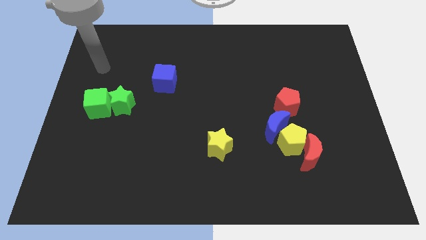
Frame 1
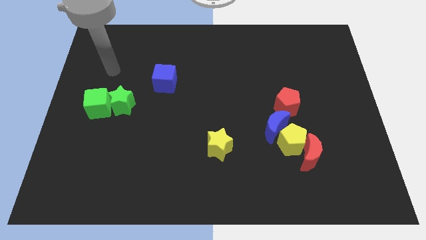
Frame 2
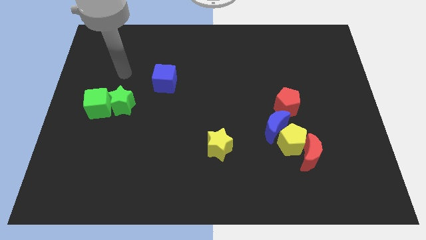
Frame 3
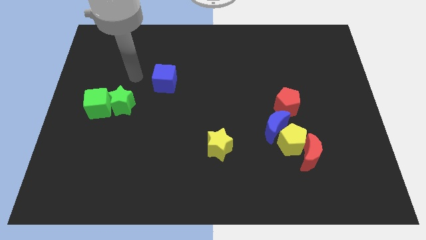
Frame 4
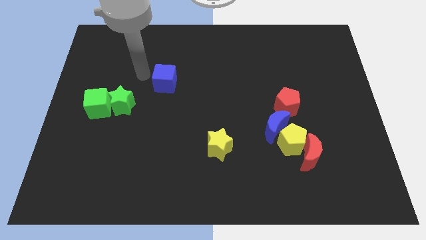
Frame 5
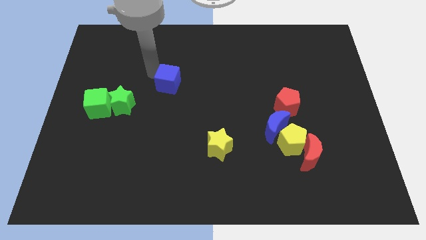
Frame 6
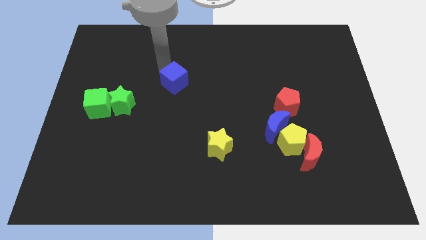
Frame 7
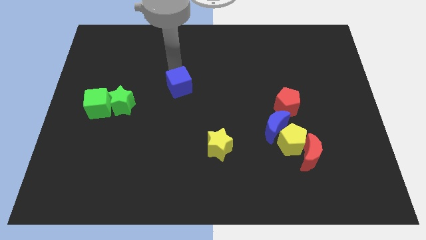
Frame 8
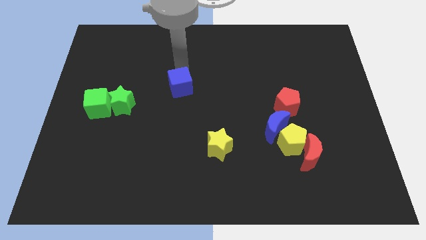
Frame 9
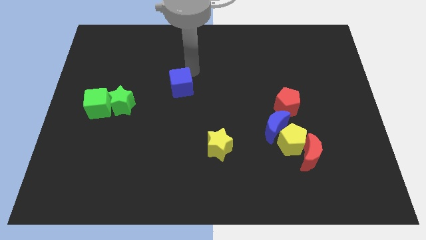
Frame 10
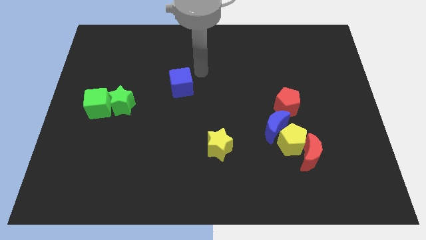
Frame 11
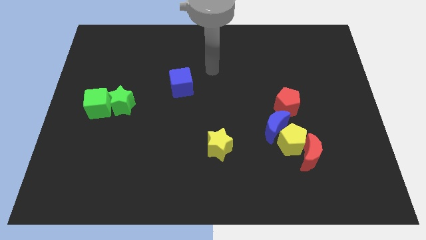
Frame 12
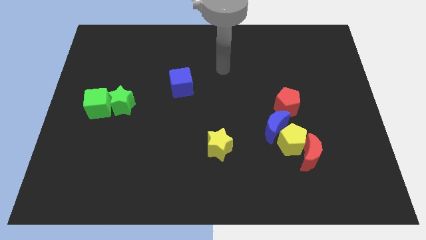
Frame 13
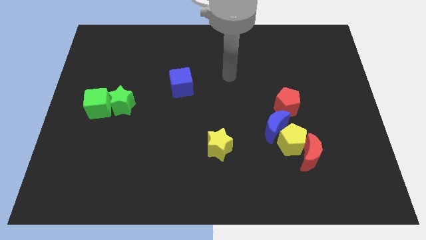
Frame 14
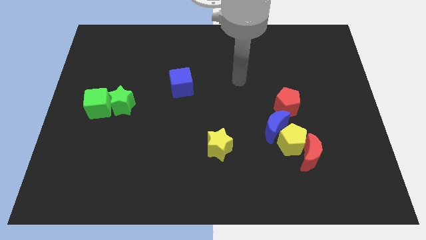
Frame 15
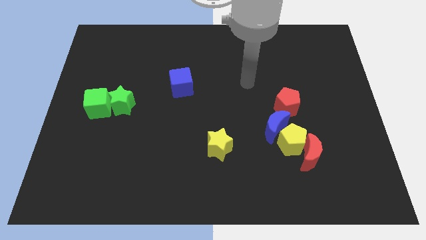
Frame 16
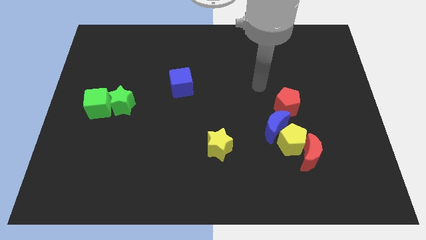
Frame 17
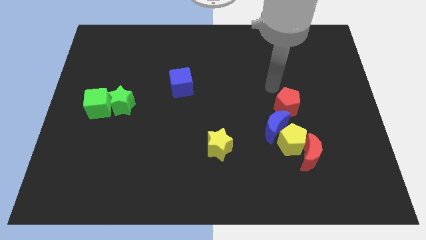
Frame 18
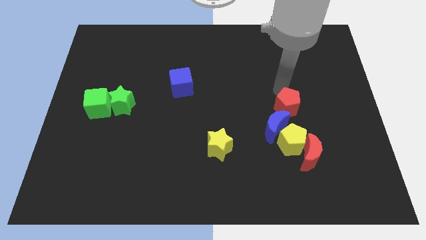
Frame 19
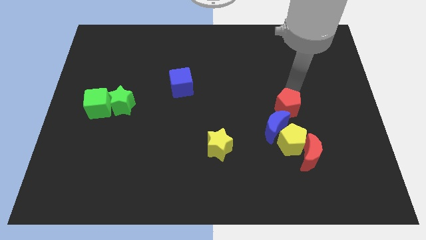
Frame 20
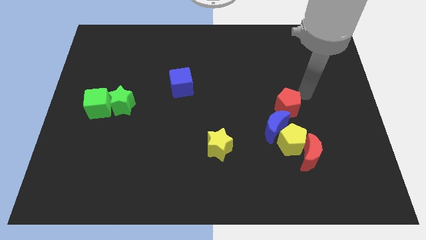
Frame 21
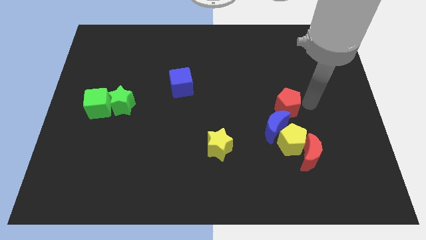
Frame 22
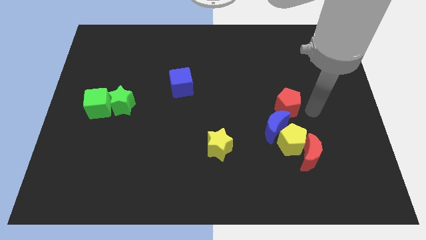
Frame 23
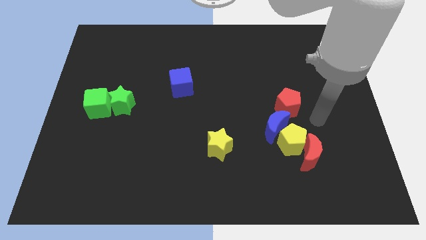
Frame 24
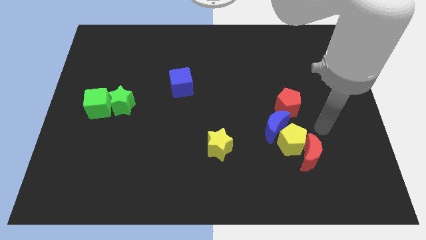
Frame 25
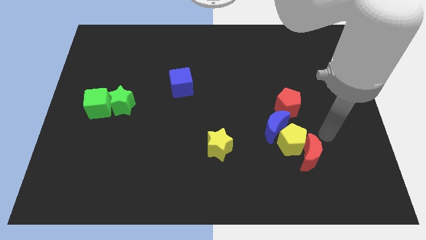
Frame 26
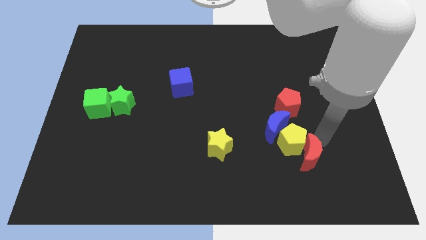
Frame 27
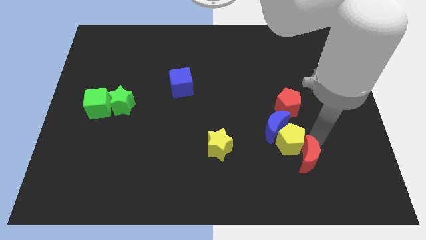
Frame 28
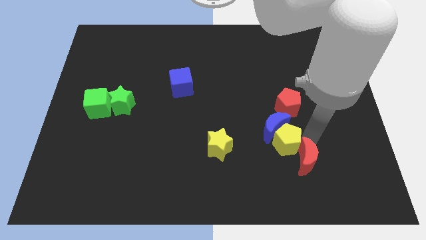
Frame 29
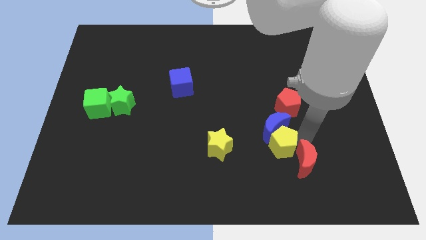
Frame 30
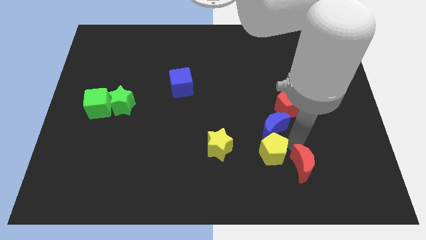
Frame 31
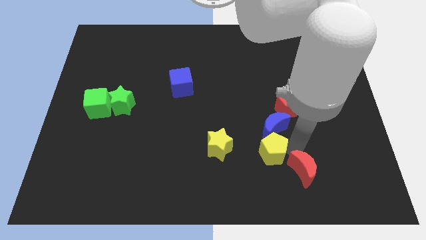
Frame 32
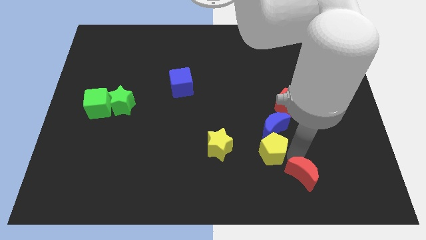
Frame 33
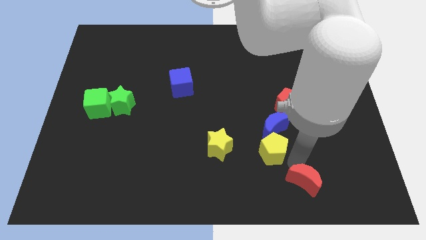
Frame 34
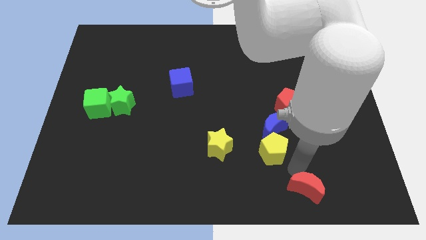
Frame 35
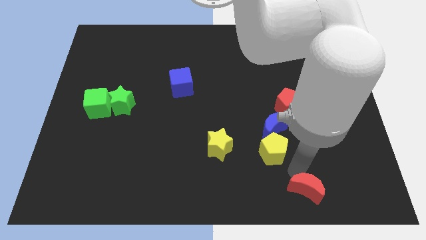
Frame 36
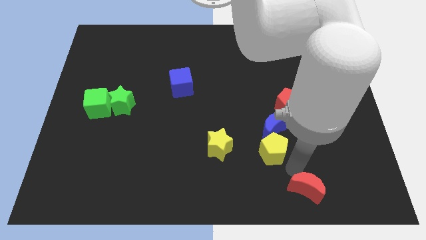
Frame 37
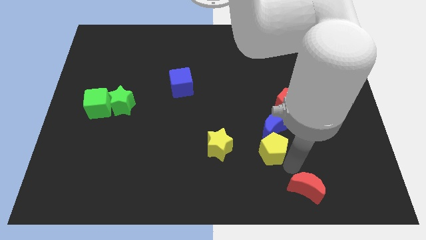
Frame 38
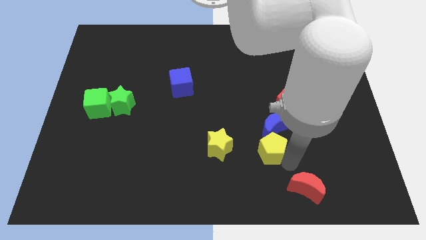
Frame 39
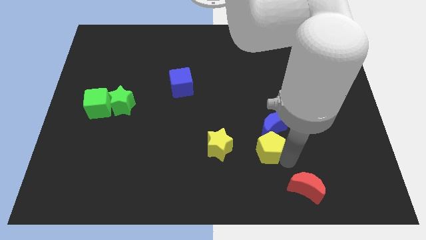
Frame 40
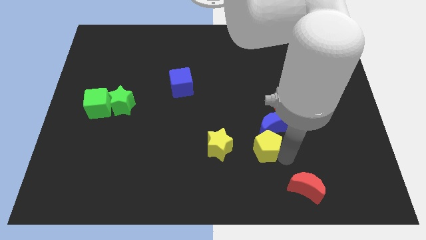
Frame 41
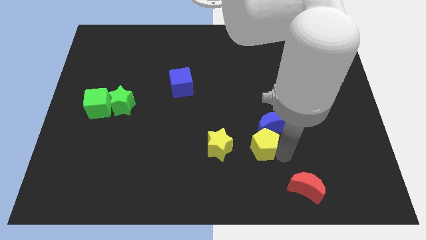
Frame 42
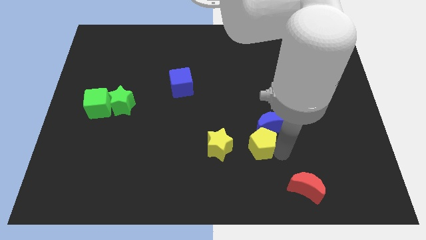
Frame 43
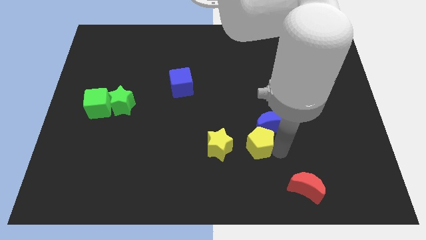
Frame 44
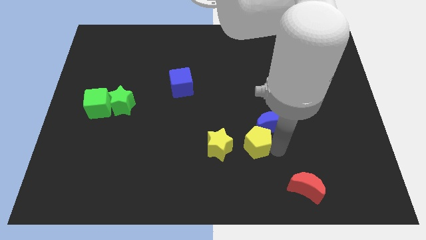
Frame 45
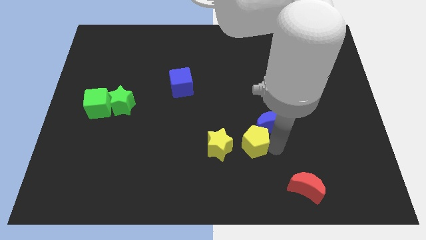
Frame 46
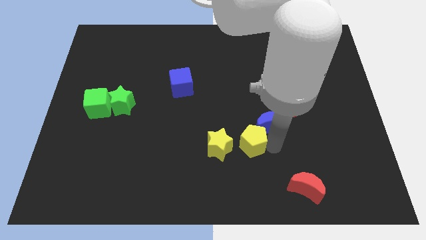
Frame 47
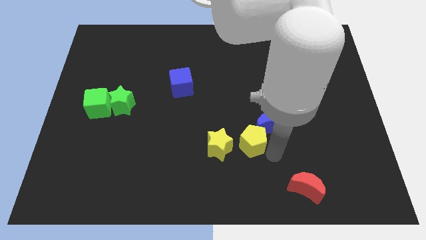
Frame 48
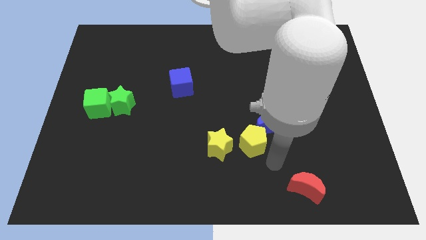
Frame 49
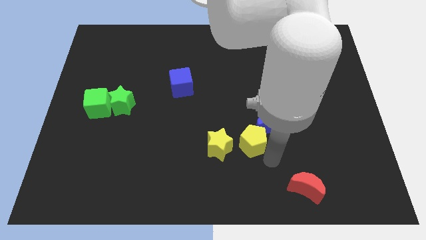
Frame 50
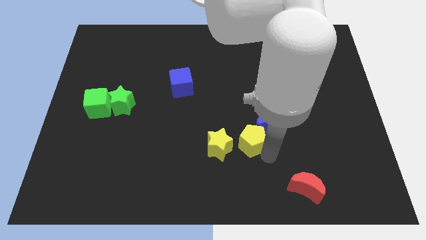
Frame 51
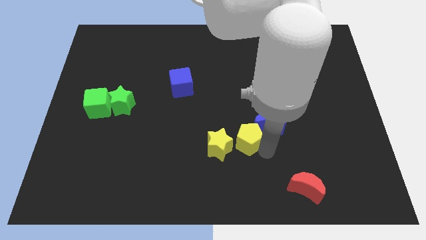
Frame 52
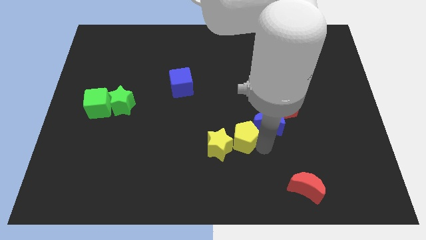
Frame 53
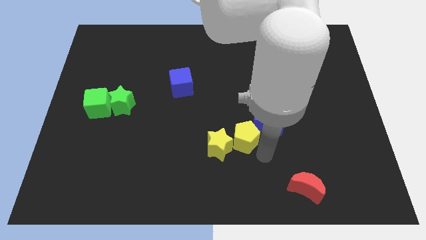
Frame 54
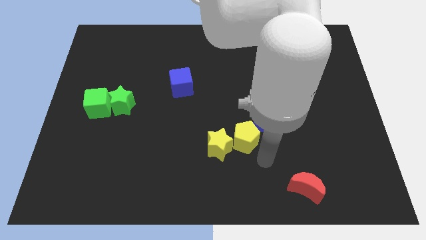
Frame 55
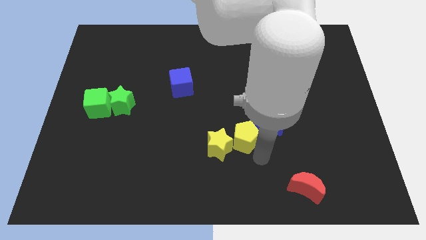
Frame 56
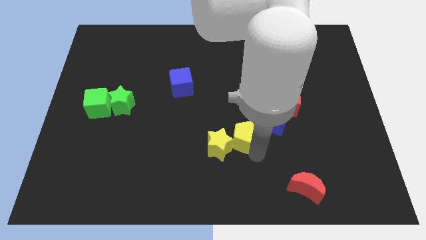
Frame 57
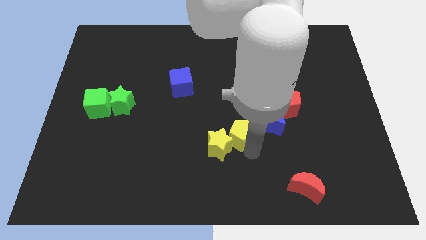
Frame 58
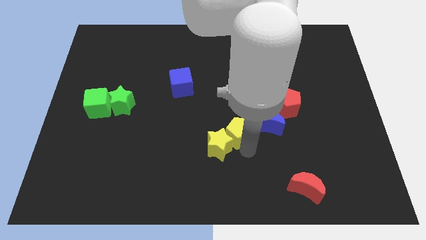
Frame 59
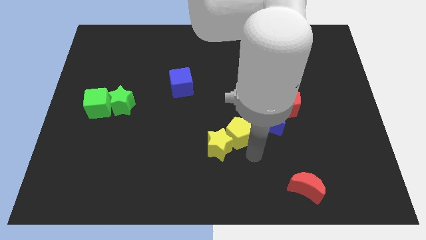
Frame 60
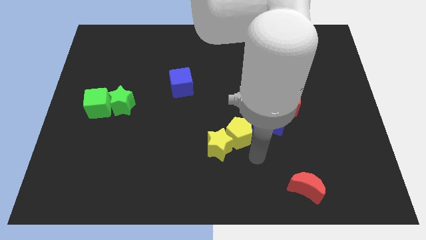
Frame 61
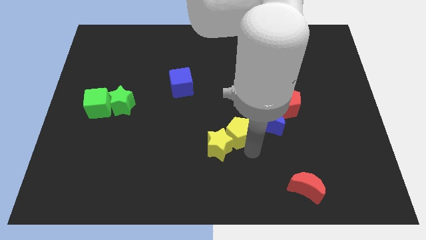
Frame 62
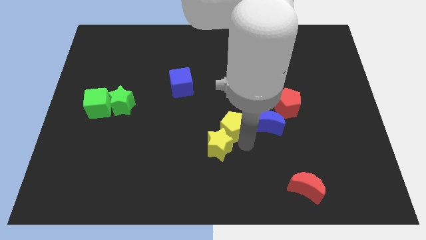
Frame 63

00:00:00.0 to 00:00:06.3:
move the yellow pentagon above the yellow star

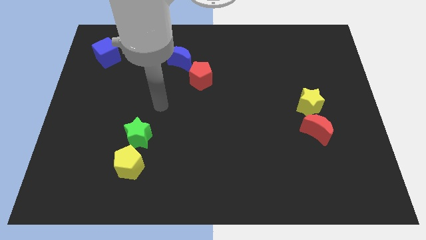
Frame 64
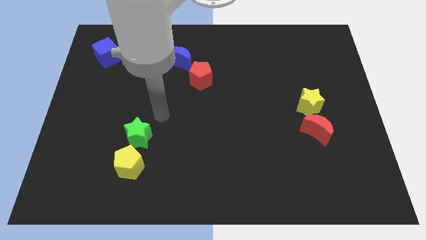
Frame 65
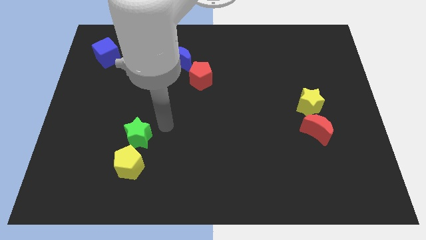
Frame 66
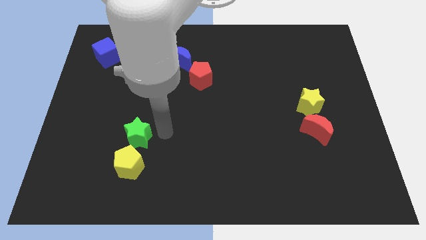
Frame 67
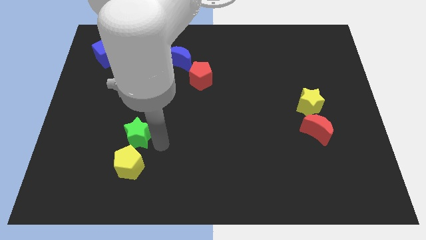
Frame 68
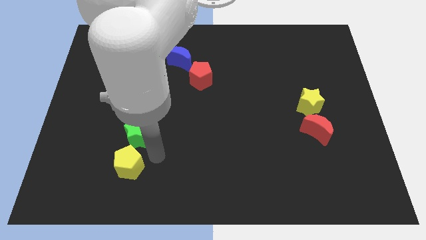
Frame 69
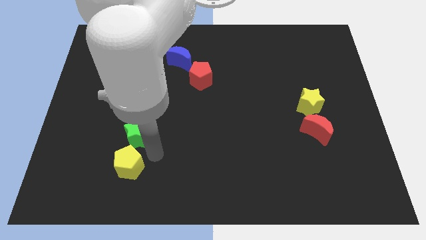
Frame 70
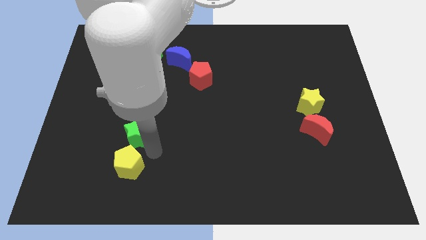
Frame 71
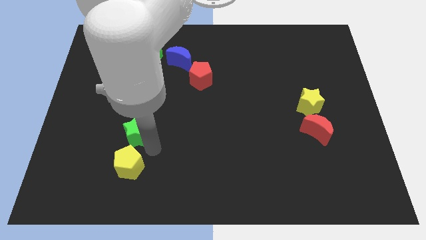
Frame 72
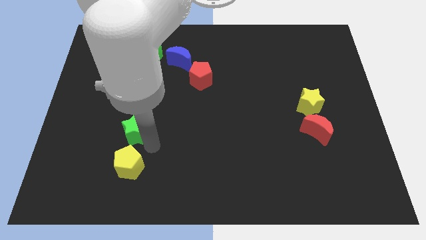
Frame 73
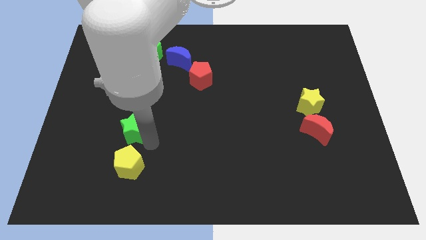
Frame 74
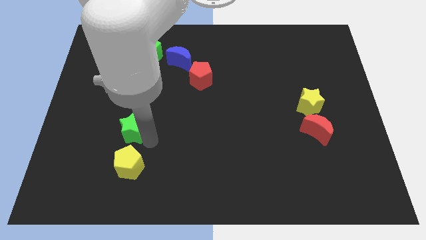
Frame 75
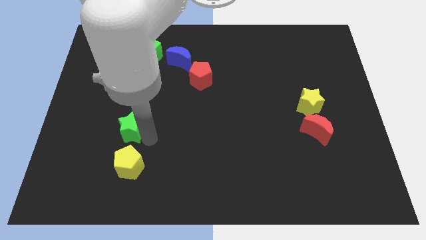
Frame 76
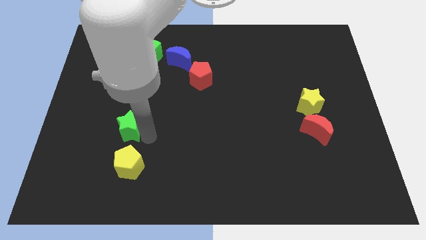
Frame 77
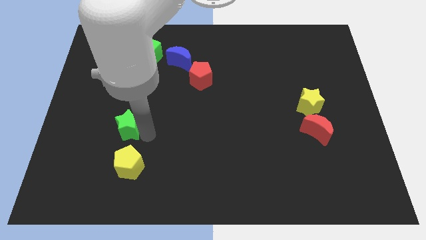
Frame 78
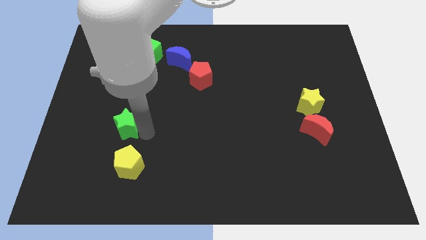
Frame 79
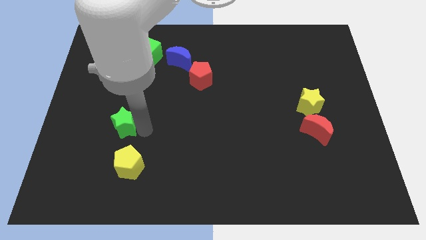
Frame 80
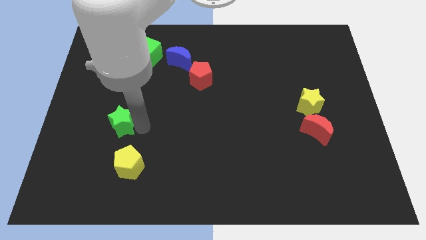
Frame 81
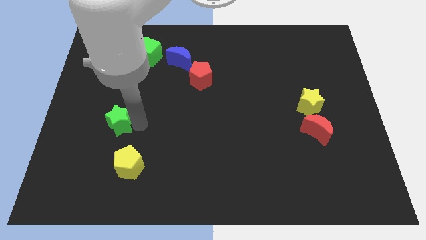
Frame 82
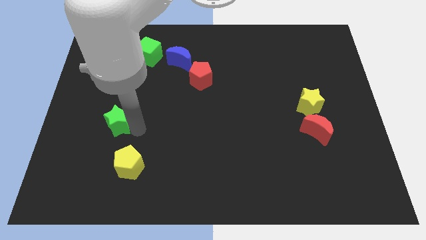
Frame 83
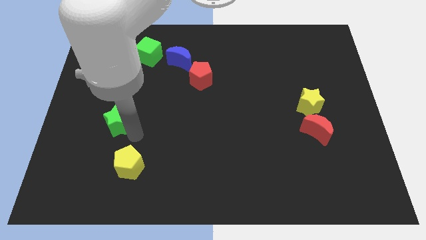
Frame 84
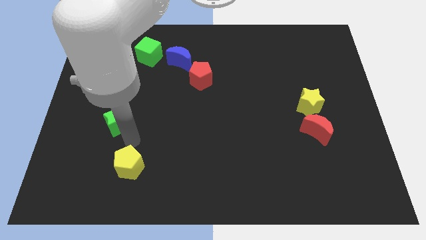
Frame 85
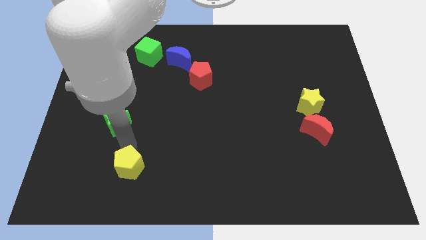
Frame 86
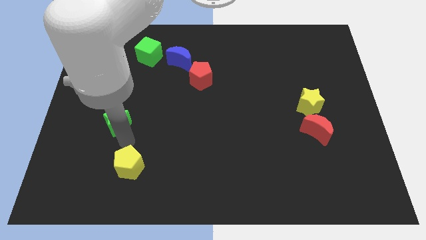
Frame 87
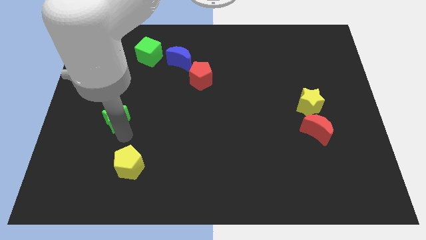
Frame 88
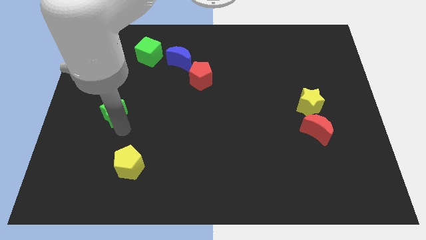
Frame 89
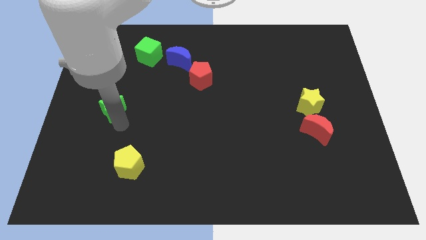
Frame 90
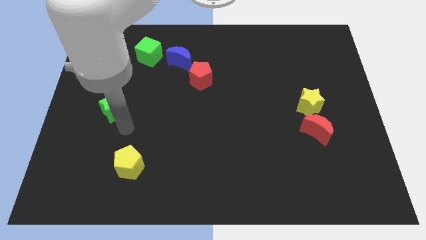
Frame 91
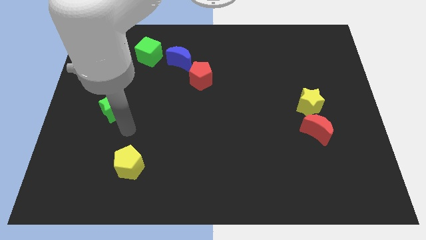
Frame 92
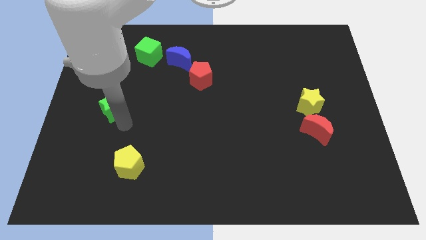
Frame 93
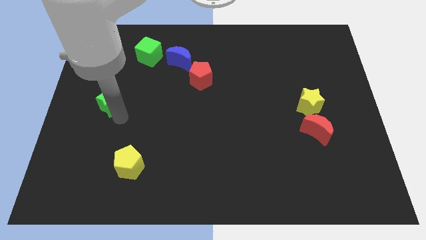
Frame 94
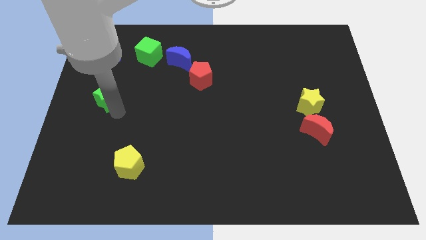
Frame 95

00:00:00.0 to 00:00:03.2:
push the green star to the bottom of the blue cube
